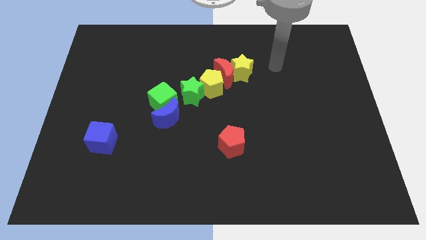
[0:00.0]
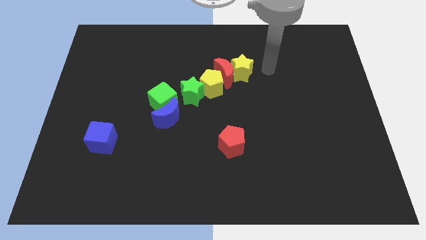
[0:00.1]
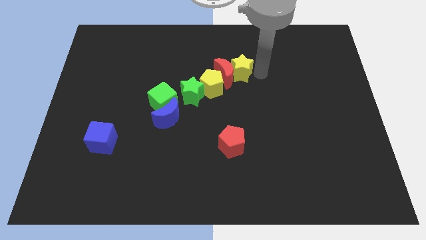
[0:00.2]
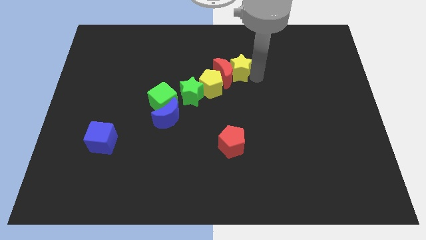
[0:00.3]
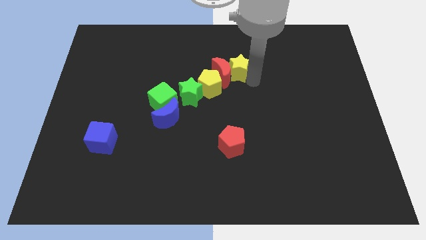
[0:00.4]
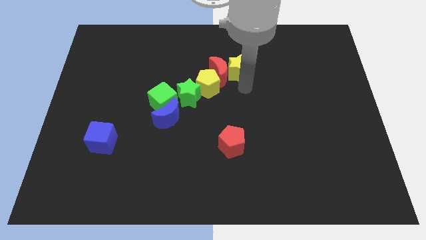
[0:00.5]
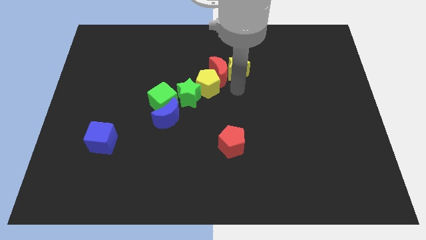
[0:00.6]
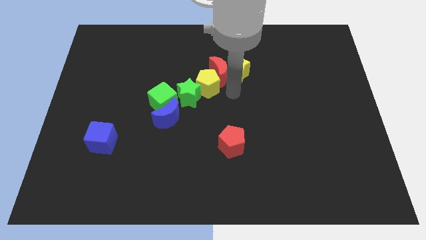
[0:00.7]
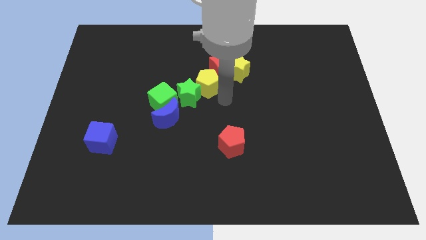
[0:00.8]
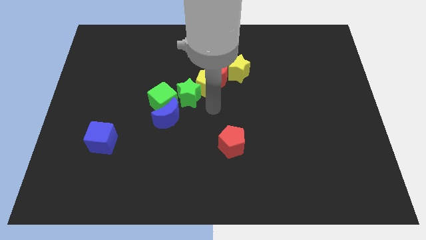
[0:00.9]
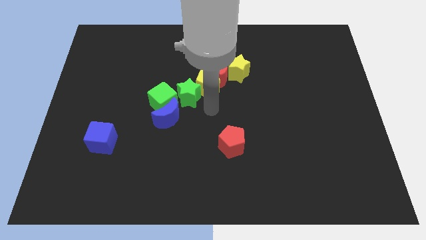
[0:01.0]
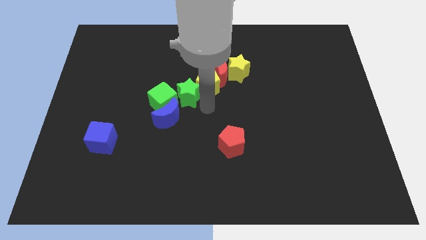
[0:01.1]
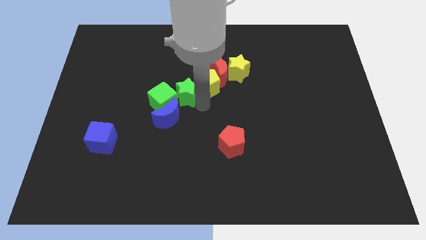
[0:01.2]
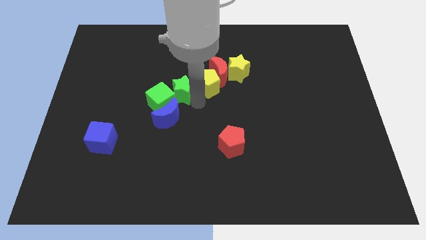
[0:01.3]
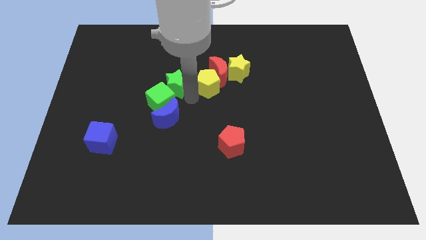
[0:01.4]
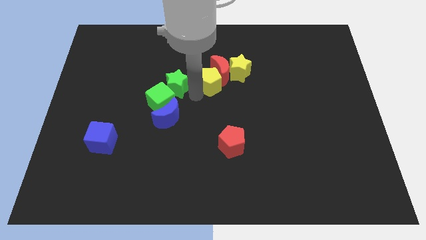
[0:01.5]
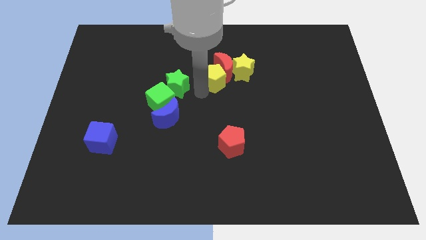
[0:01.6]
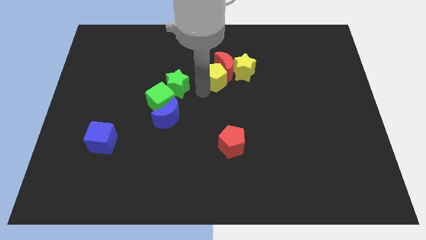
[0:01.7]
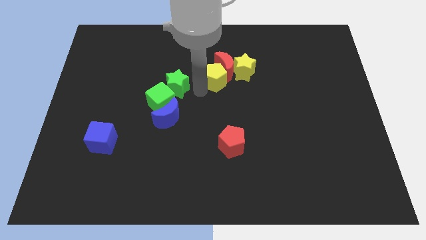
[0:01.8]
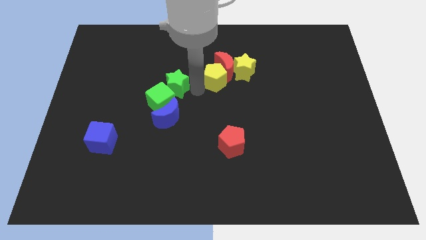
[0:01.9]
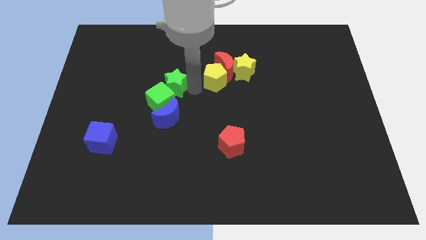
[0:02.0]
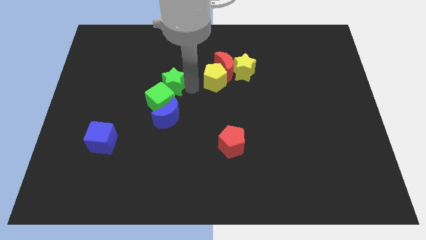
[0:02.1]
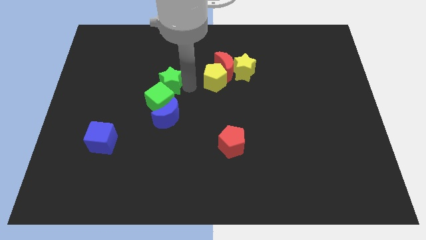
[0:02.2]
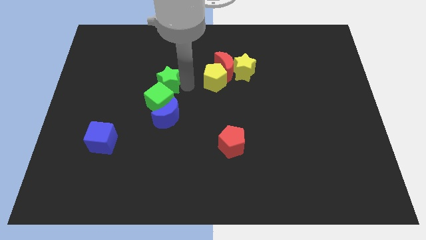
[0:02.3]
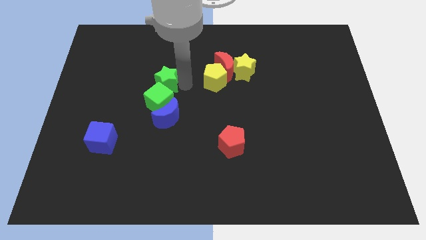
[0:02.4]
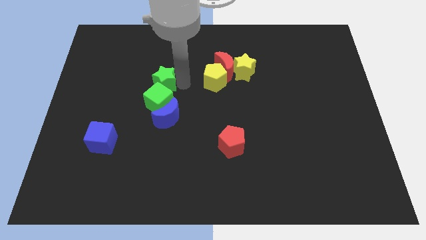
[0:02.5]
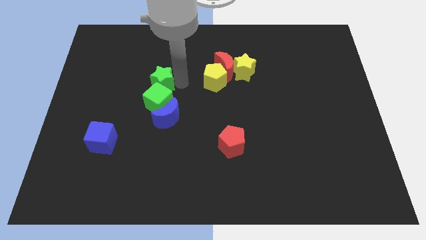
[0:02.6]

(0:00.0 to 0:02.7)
push the green star to the left a bit

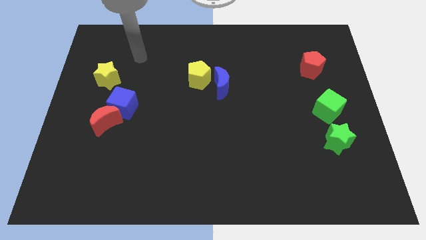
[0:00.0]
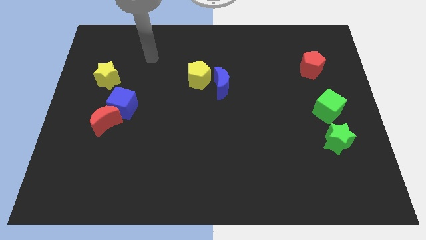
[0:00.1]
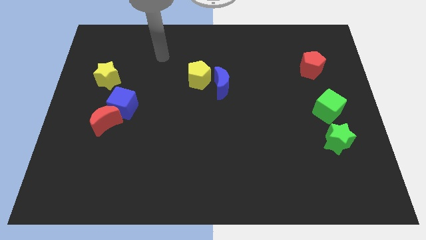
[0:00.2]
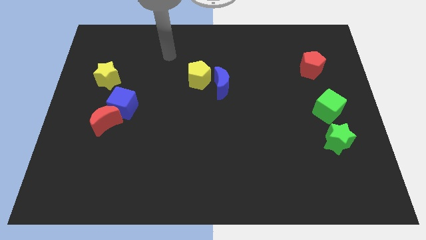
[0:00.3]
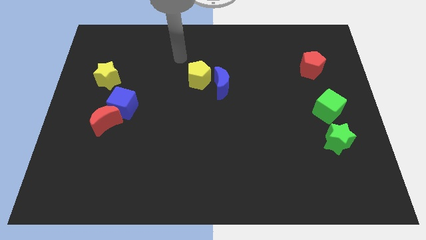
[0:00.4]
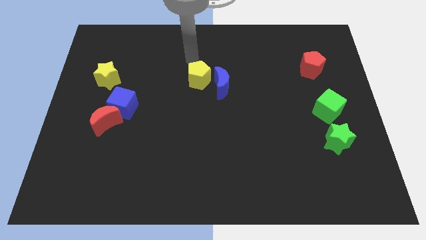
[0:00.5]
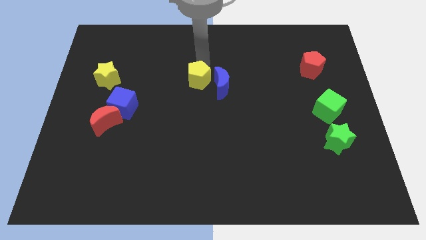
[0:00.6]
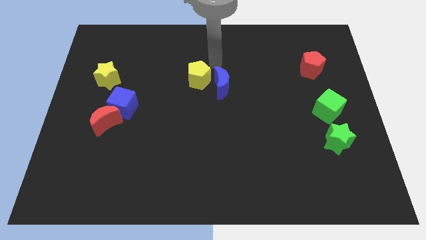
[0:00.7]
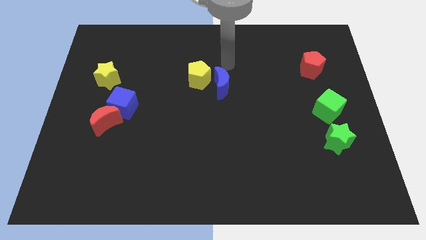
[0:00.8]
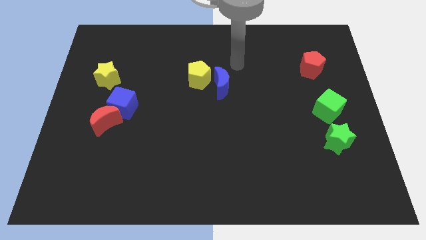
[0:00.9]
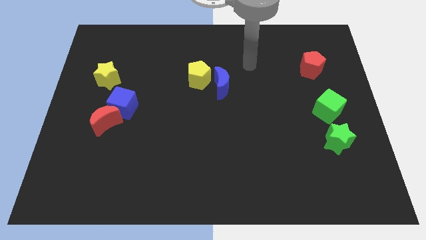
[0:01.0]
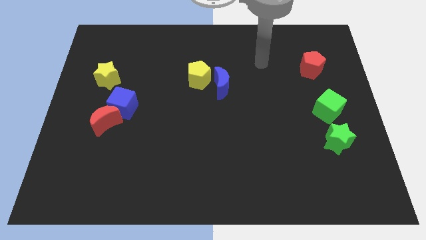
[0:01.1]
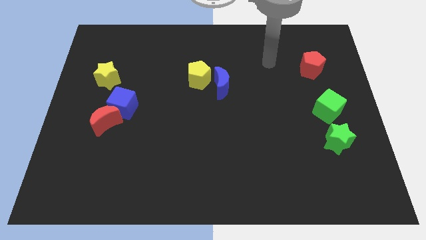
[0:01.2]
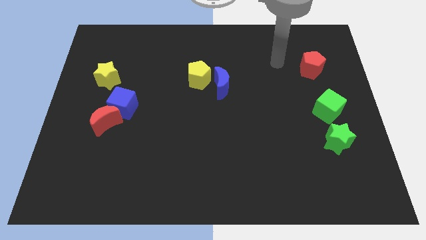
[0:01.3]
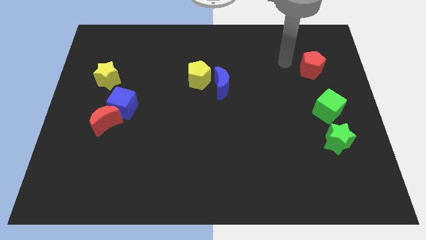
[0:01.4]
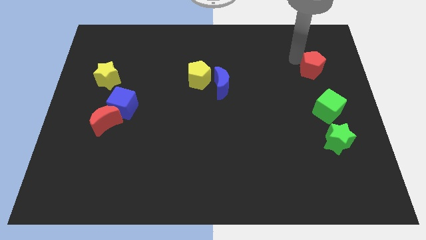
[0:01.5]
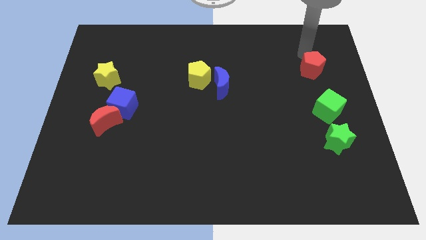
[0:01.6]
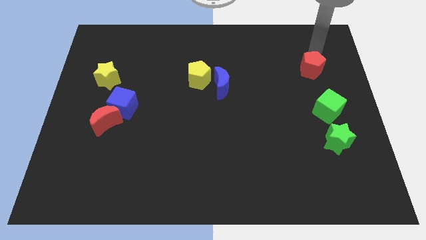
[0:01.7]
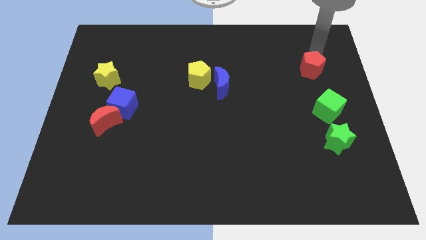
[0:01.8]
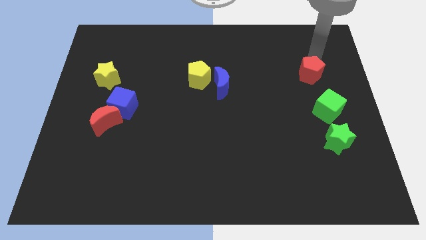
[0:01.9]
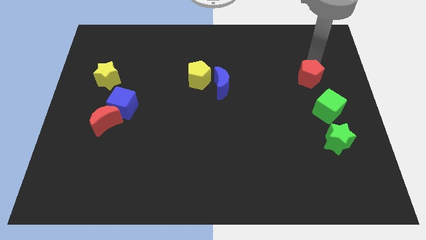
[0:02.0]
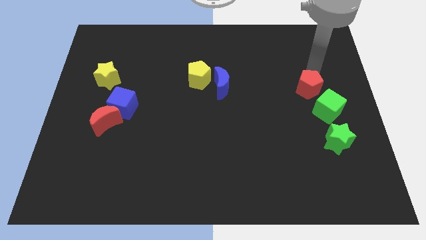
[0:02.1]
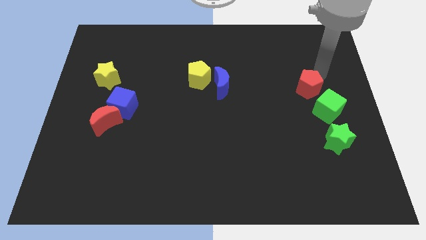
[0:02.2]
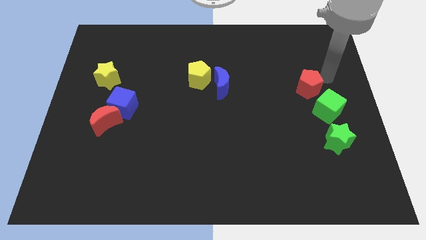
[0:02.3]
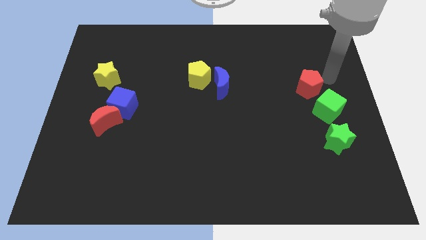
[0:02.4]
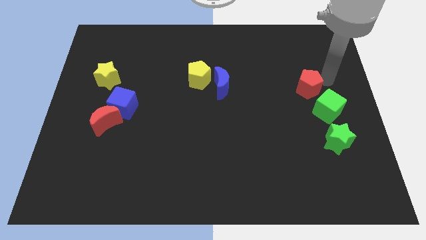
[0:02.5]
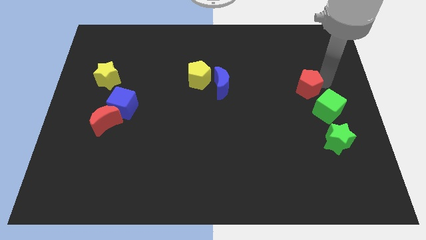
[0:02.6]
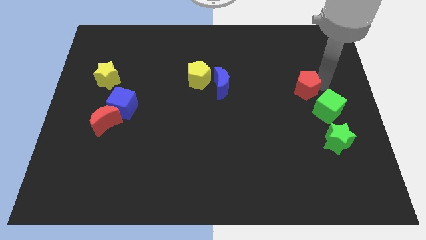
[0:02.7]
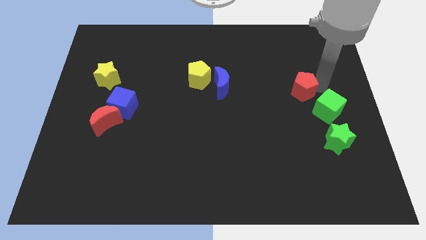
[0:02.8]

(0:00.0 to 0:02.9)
slide the red pentagon a little bit down and to the left

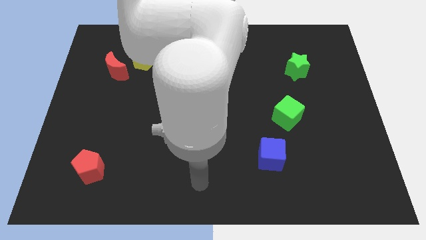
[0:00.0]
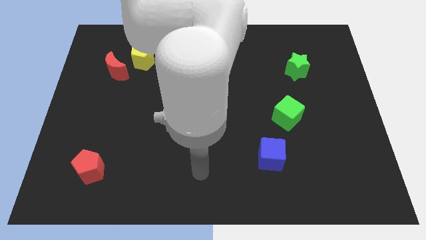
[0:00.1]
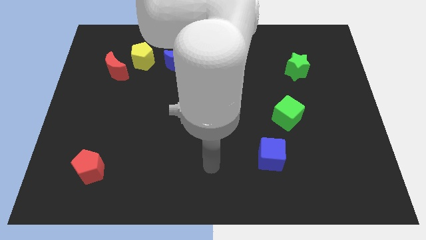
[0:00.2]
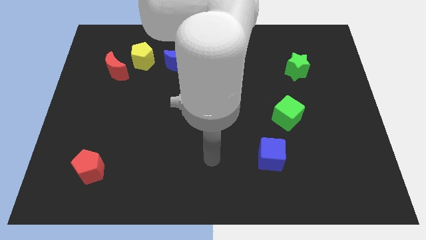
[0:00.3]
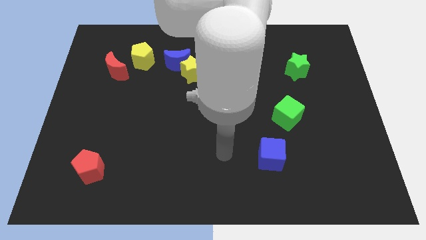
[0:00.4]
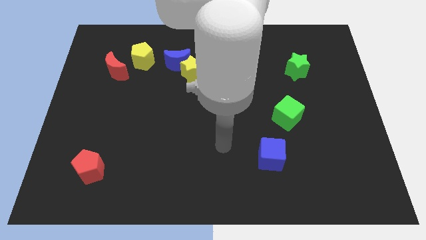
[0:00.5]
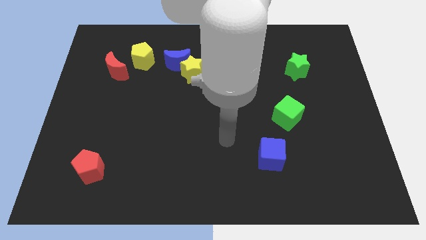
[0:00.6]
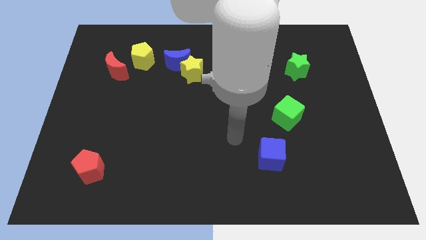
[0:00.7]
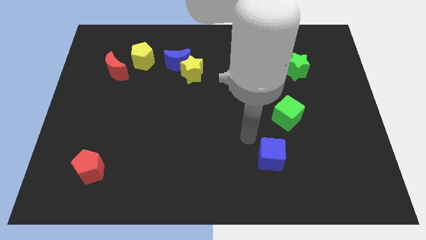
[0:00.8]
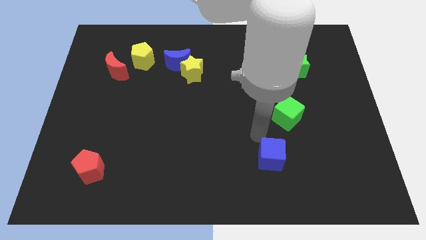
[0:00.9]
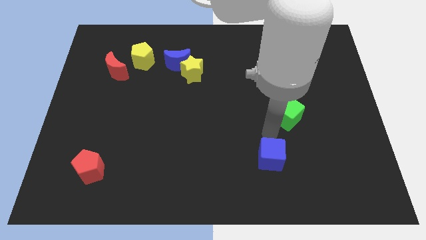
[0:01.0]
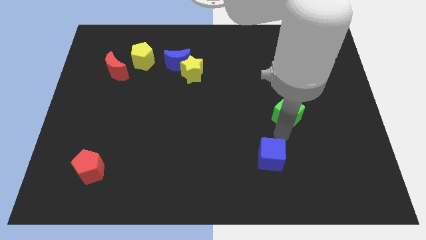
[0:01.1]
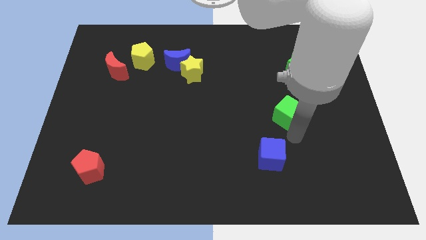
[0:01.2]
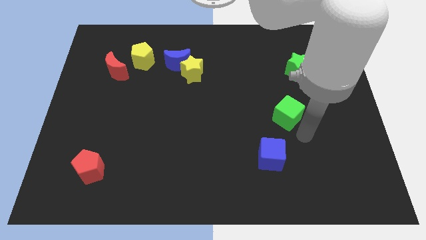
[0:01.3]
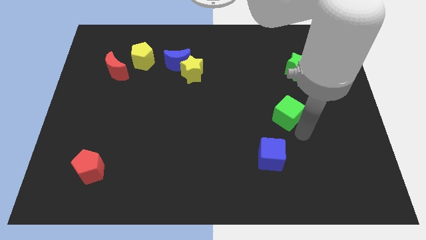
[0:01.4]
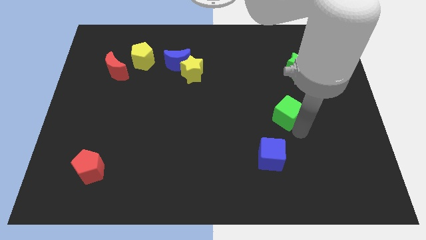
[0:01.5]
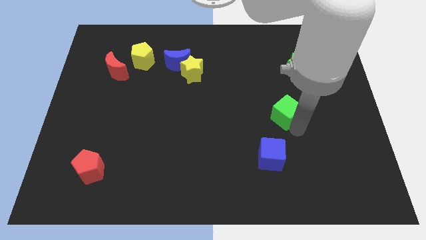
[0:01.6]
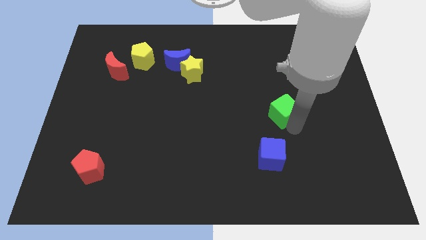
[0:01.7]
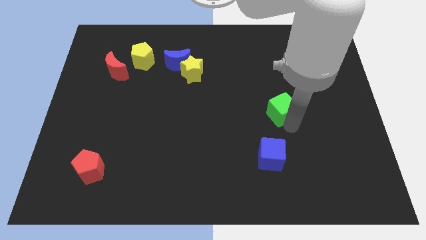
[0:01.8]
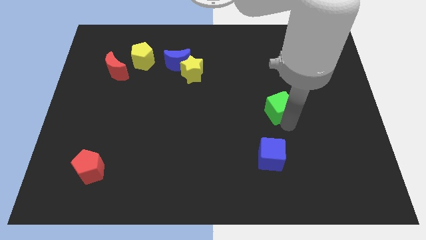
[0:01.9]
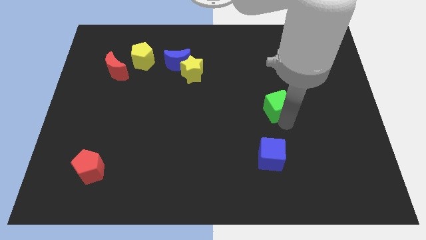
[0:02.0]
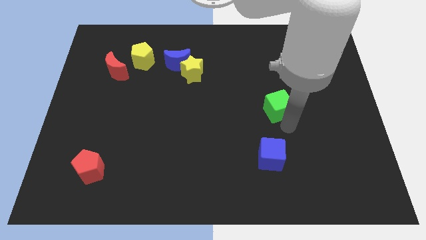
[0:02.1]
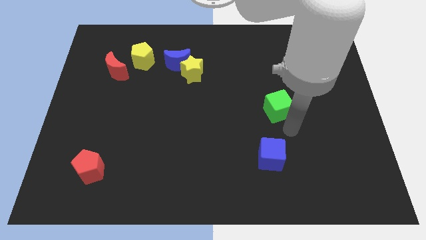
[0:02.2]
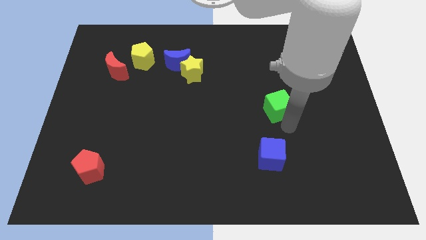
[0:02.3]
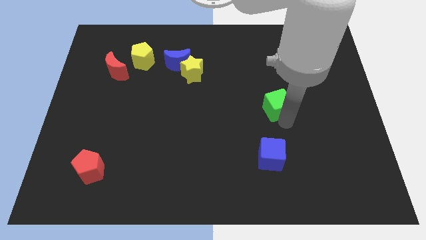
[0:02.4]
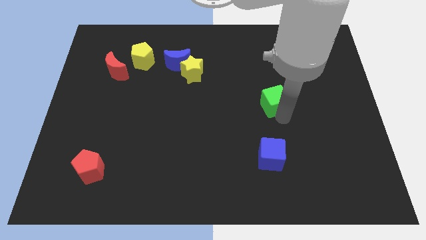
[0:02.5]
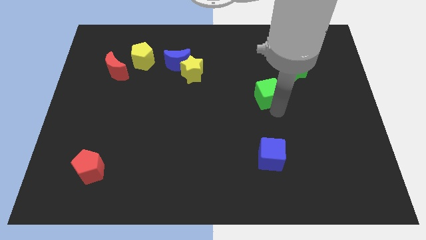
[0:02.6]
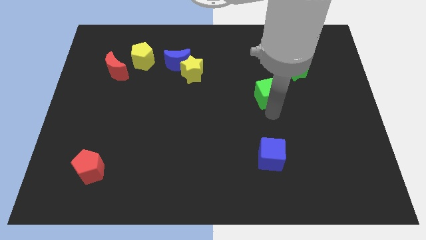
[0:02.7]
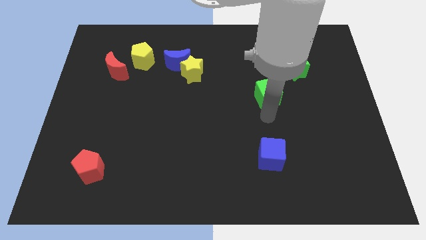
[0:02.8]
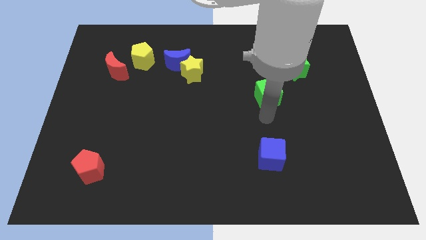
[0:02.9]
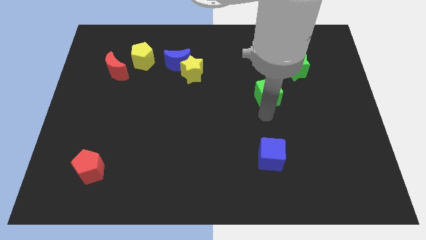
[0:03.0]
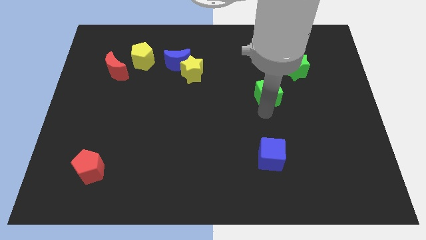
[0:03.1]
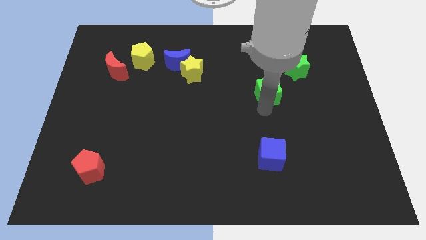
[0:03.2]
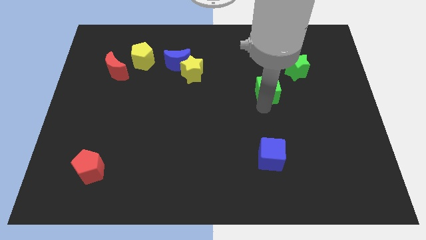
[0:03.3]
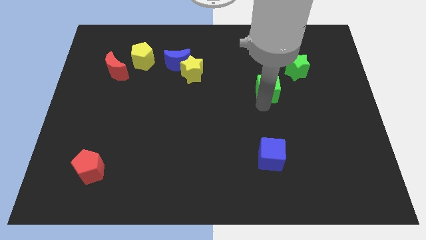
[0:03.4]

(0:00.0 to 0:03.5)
slightly slide the green cube upwards
